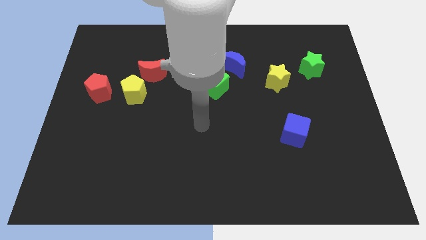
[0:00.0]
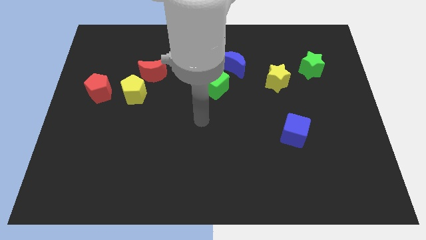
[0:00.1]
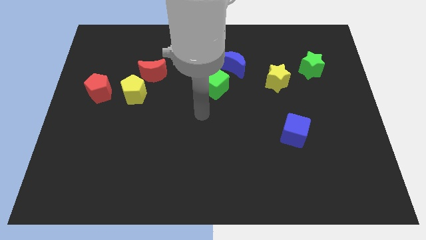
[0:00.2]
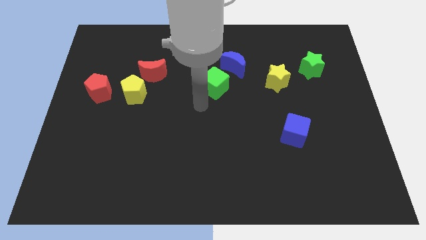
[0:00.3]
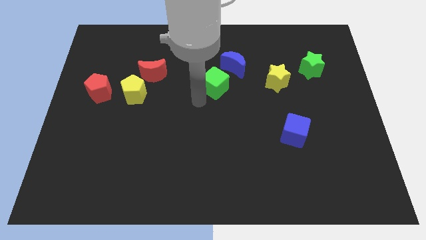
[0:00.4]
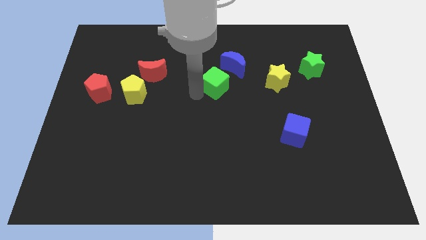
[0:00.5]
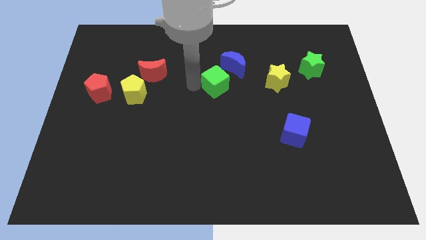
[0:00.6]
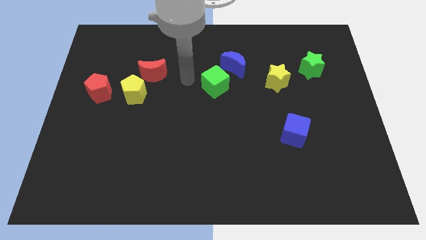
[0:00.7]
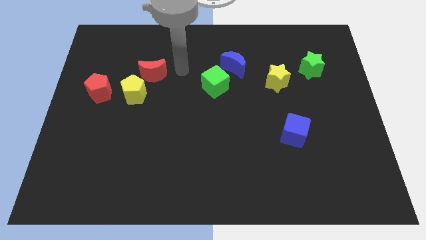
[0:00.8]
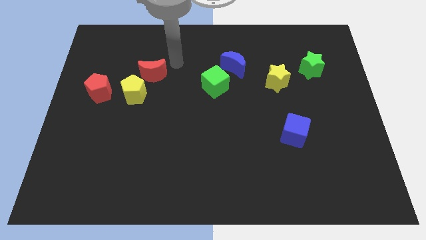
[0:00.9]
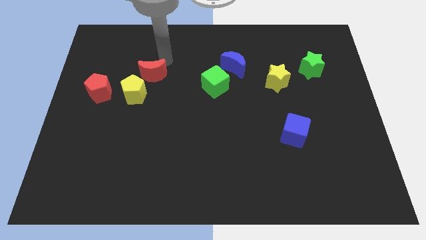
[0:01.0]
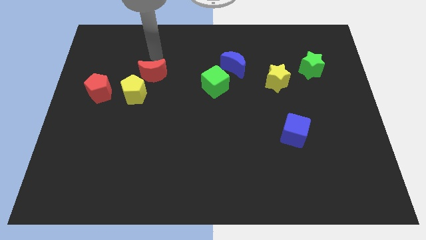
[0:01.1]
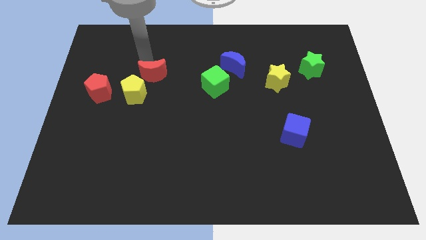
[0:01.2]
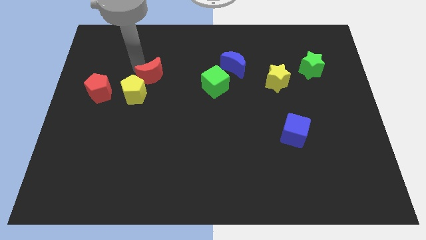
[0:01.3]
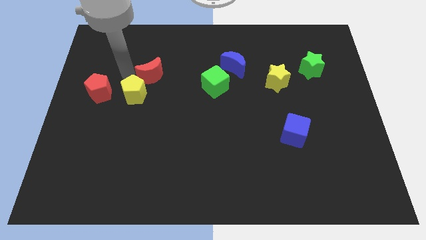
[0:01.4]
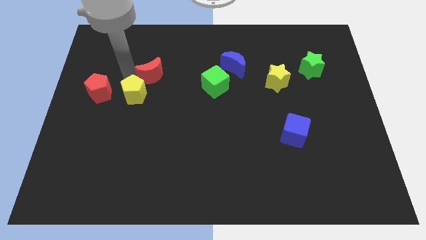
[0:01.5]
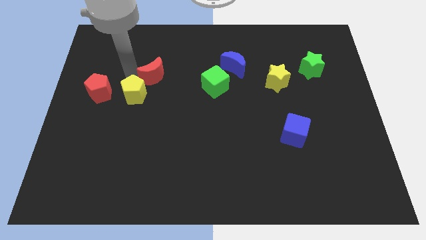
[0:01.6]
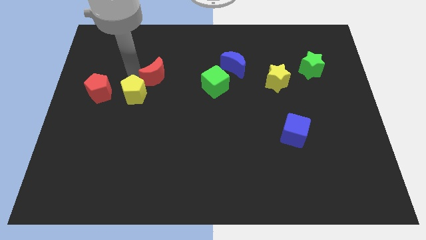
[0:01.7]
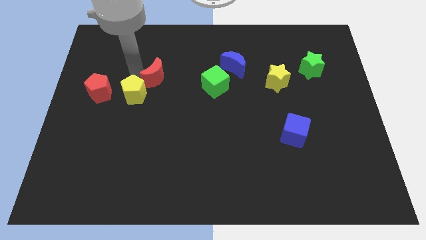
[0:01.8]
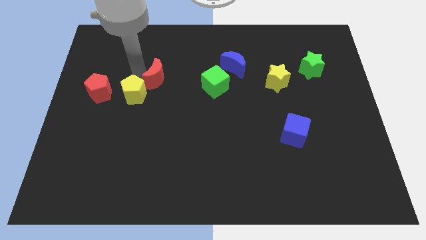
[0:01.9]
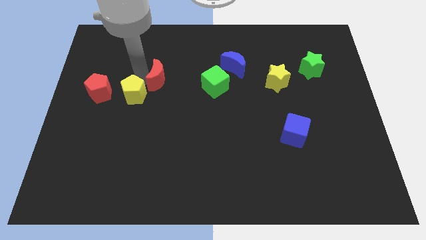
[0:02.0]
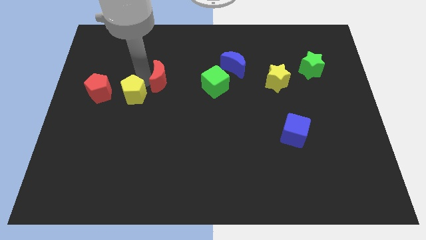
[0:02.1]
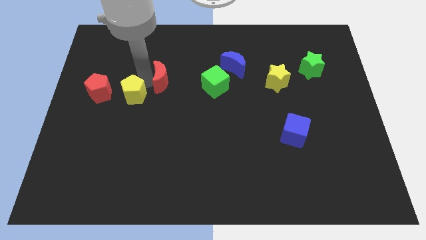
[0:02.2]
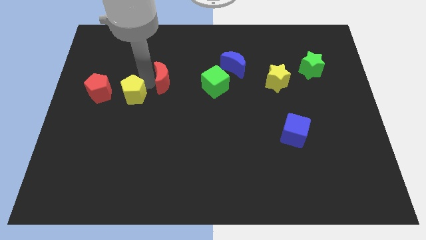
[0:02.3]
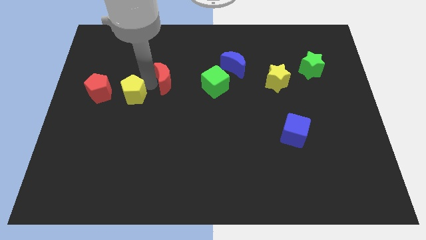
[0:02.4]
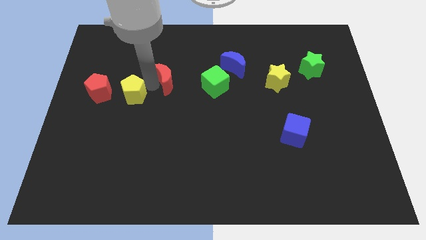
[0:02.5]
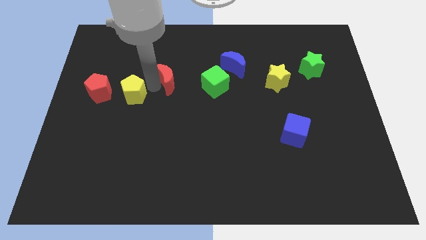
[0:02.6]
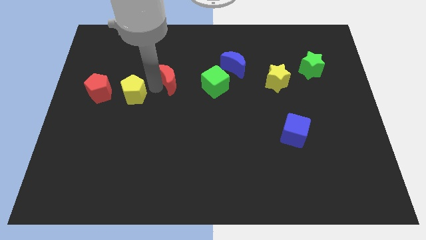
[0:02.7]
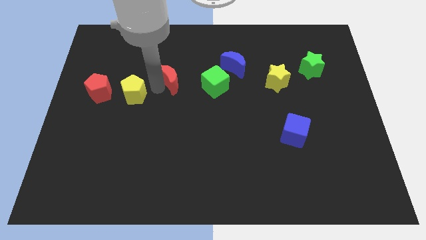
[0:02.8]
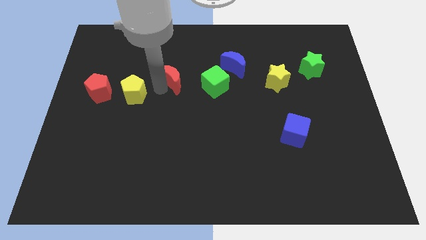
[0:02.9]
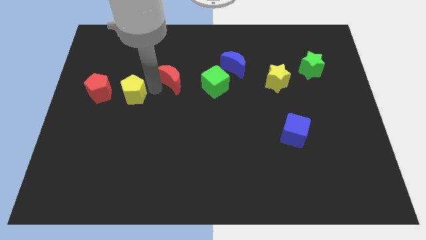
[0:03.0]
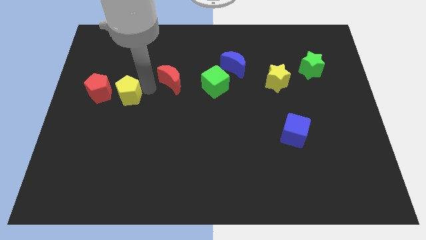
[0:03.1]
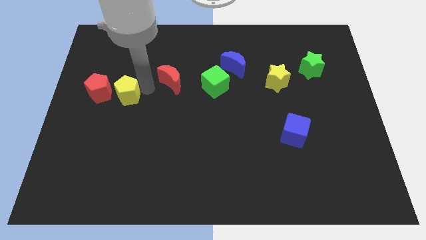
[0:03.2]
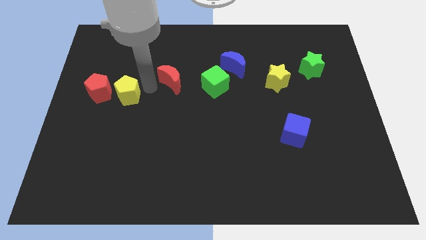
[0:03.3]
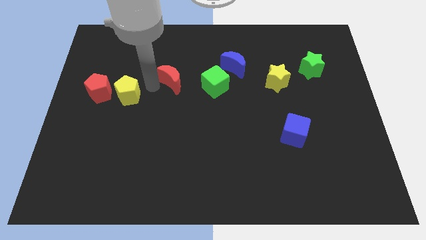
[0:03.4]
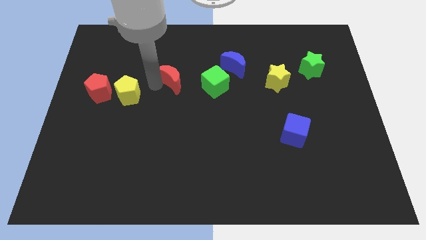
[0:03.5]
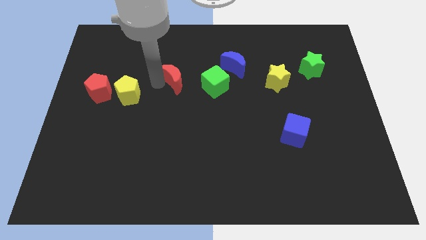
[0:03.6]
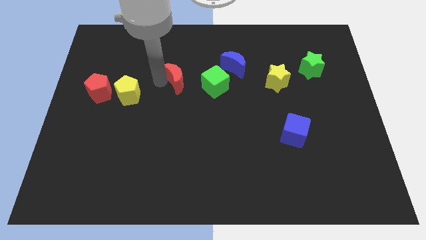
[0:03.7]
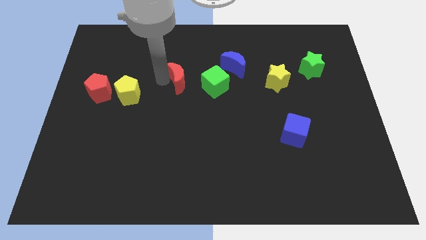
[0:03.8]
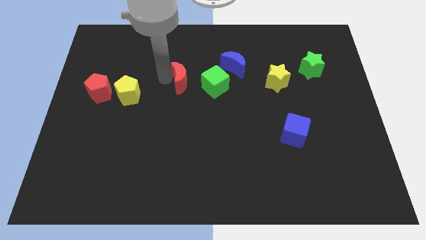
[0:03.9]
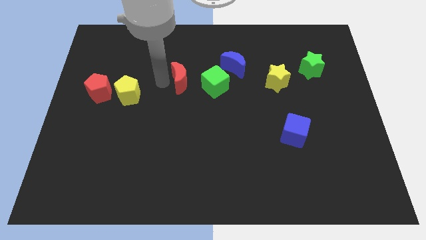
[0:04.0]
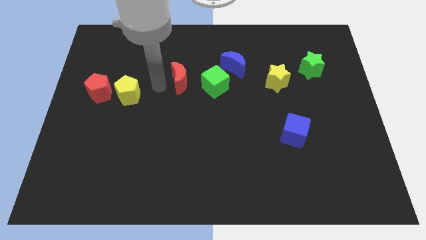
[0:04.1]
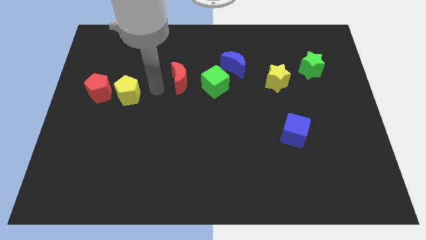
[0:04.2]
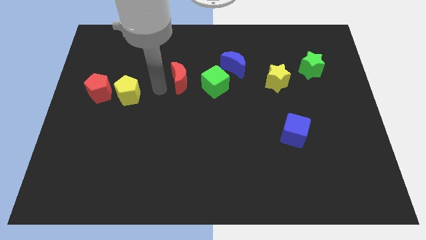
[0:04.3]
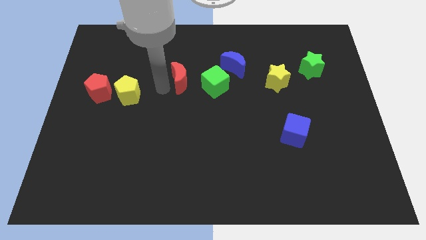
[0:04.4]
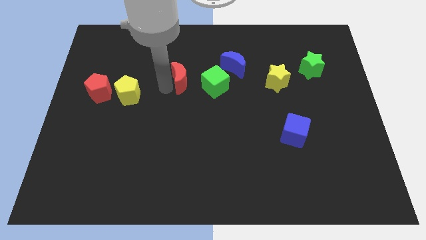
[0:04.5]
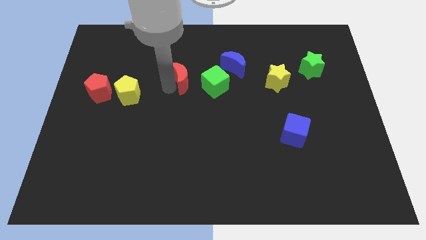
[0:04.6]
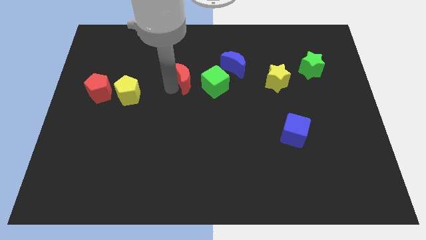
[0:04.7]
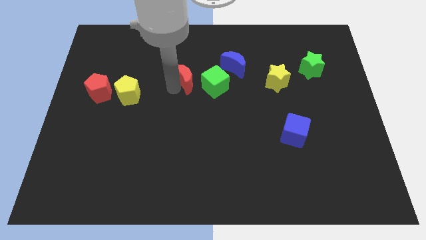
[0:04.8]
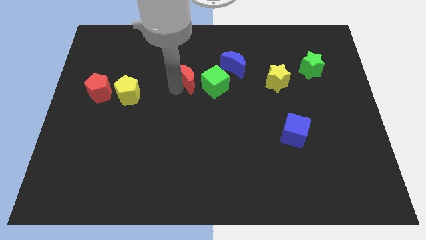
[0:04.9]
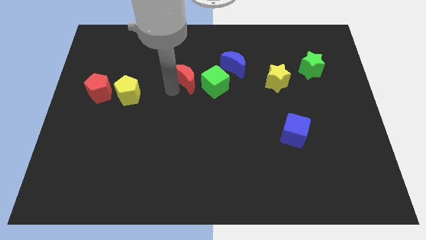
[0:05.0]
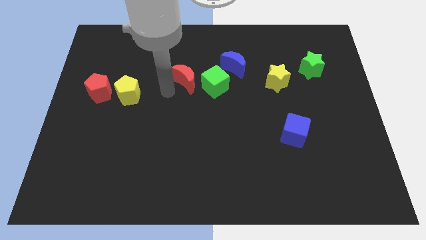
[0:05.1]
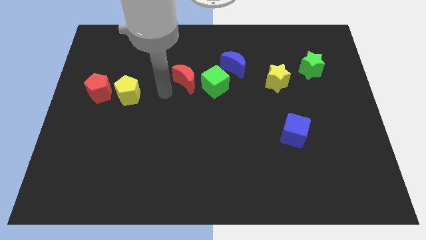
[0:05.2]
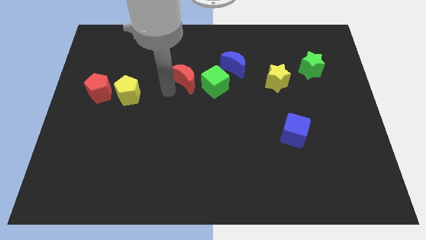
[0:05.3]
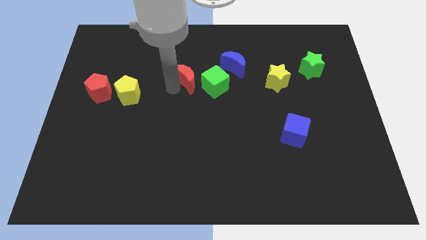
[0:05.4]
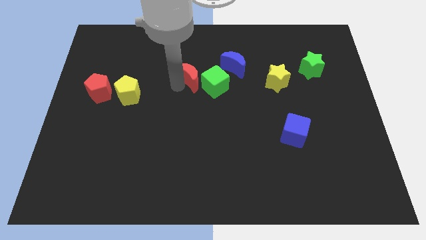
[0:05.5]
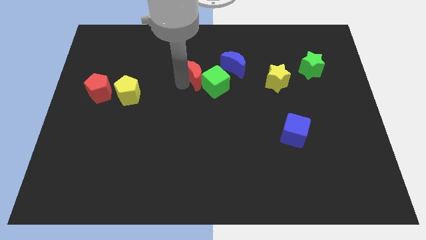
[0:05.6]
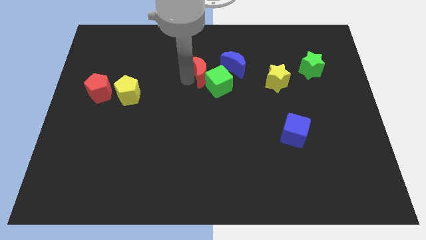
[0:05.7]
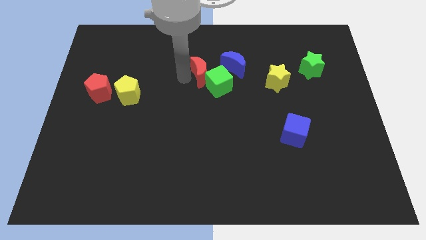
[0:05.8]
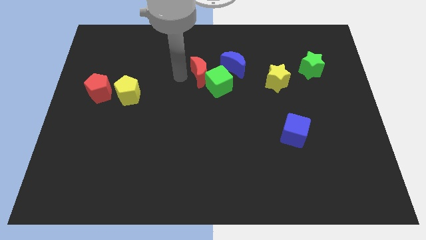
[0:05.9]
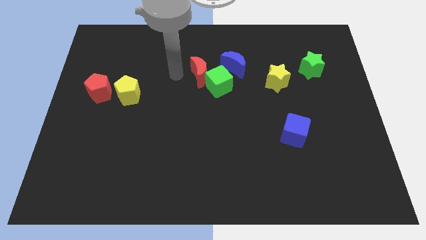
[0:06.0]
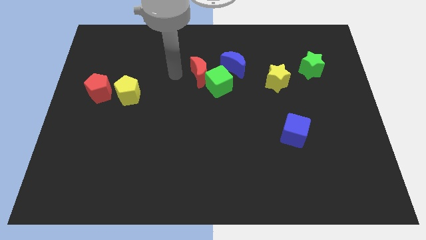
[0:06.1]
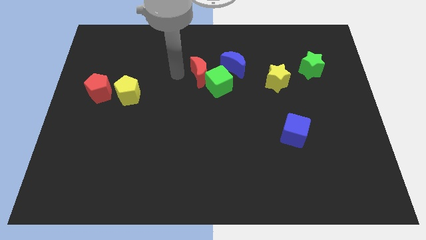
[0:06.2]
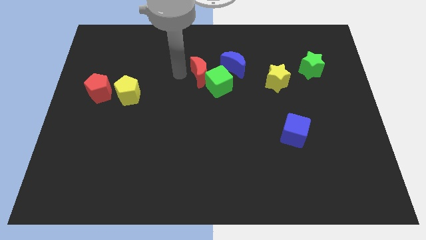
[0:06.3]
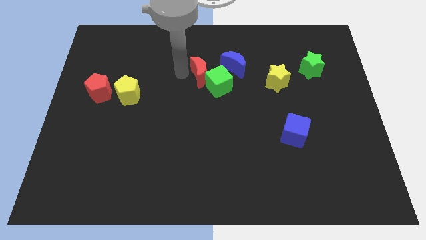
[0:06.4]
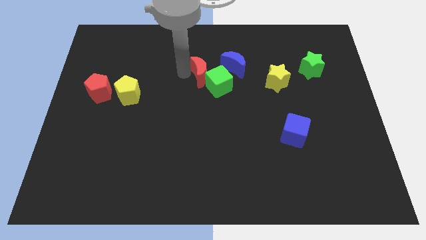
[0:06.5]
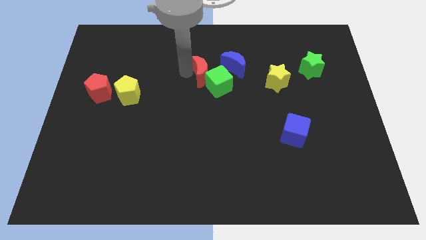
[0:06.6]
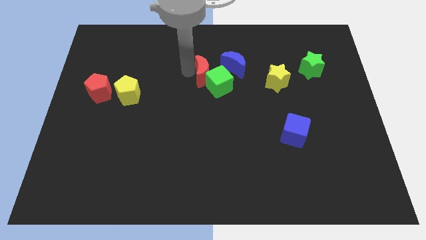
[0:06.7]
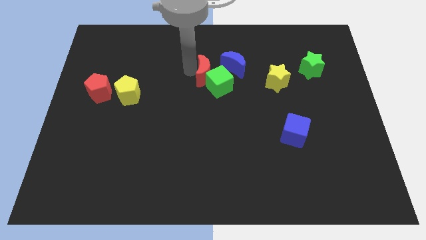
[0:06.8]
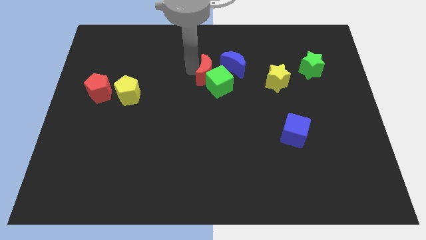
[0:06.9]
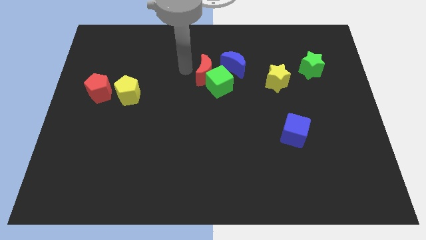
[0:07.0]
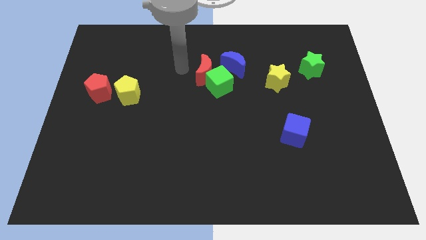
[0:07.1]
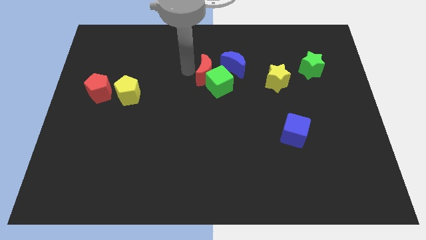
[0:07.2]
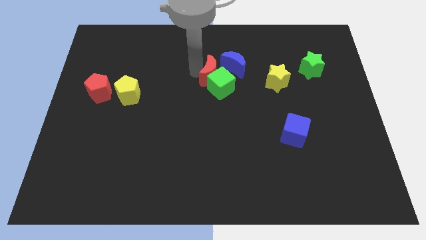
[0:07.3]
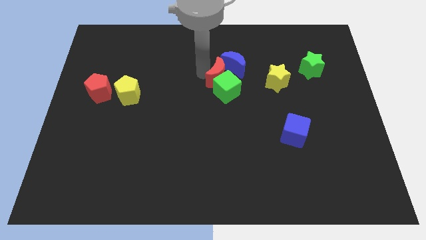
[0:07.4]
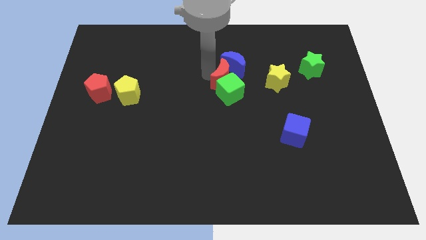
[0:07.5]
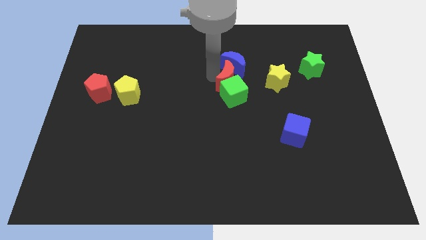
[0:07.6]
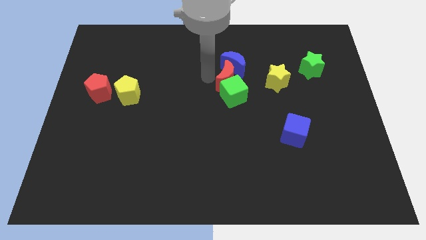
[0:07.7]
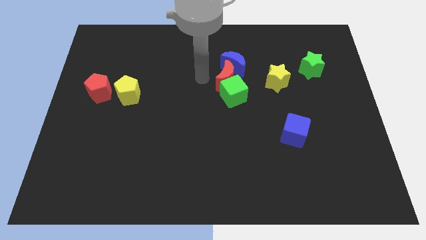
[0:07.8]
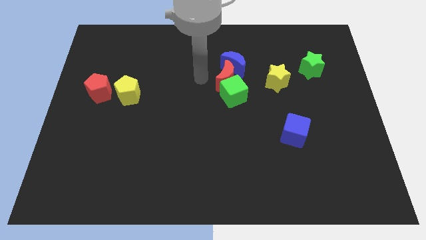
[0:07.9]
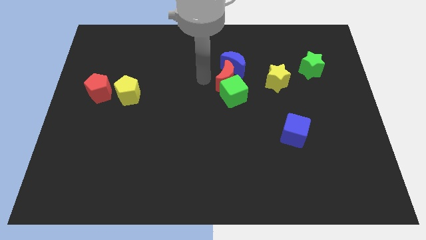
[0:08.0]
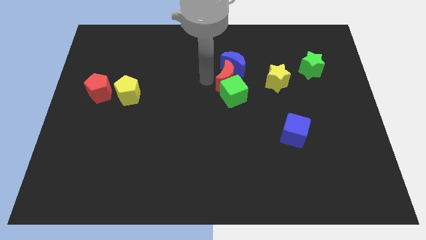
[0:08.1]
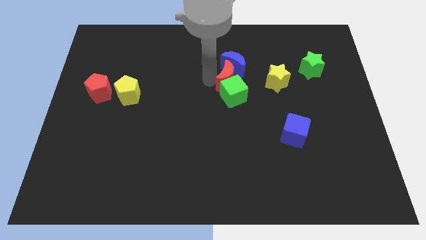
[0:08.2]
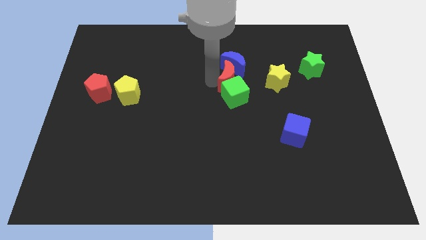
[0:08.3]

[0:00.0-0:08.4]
slide the red moon to the bottom right of the blue moon
